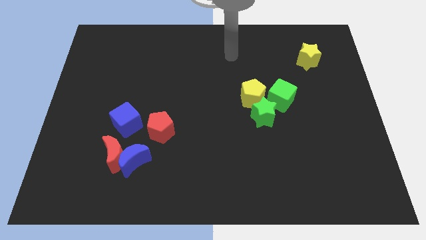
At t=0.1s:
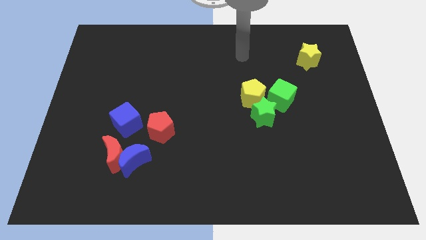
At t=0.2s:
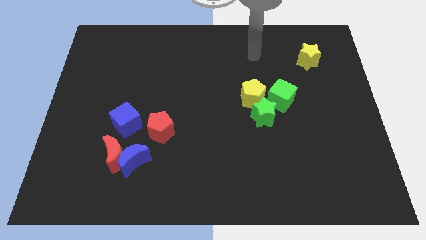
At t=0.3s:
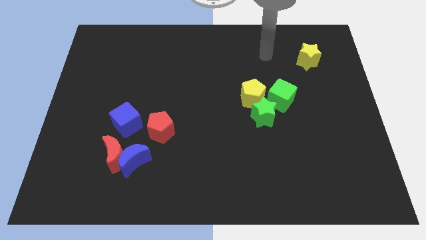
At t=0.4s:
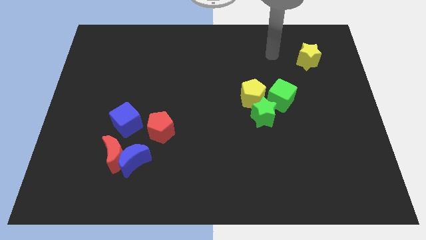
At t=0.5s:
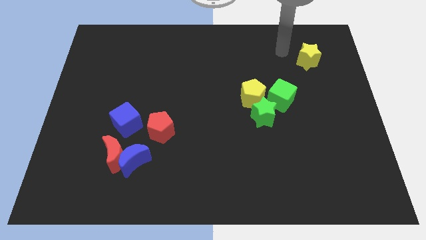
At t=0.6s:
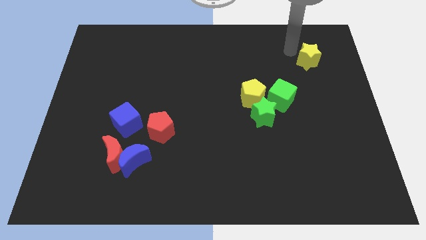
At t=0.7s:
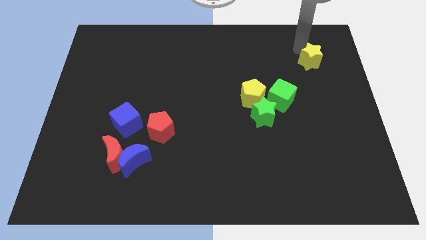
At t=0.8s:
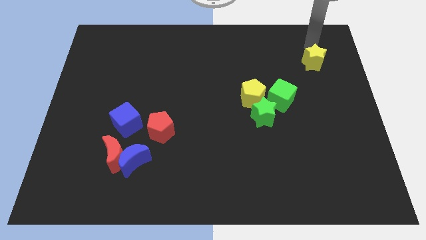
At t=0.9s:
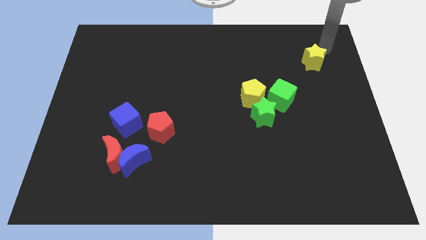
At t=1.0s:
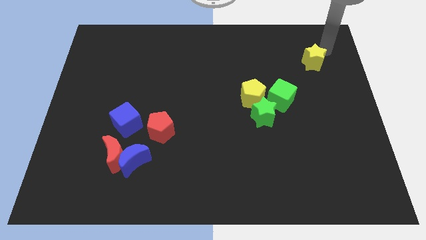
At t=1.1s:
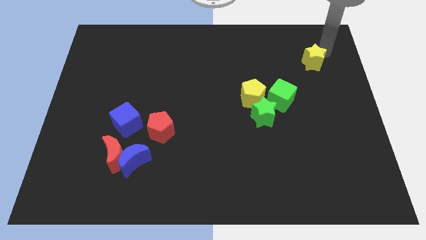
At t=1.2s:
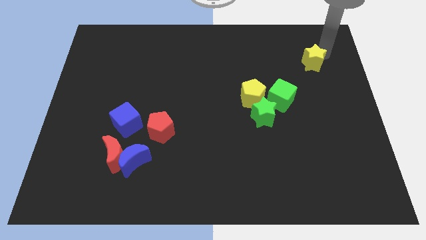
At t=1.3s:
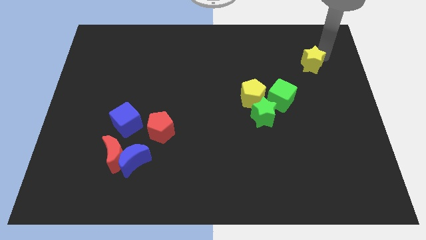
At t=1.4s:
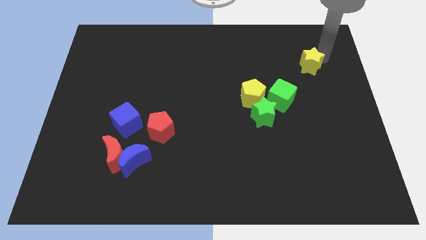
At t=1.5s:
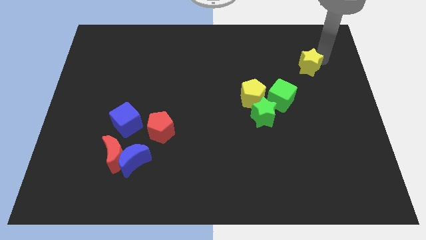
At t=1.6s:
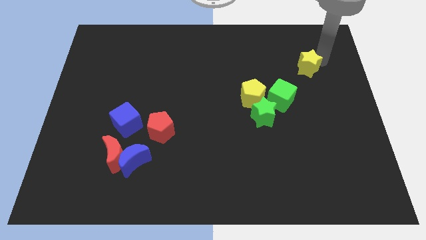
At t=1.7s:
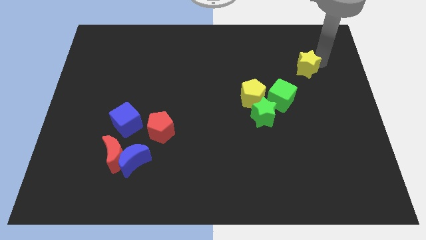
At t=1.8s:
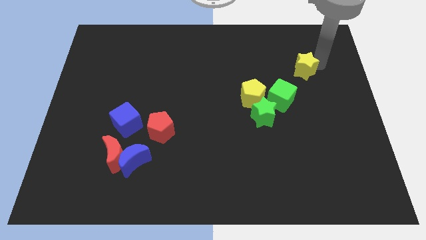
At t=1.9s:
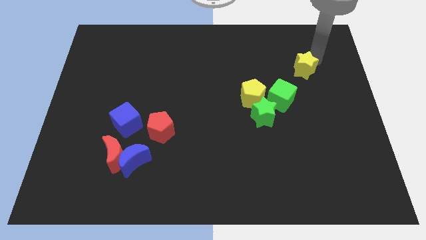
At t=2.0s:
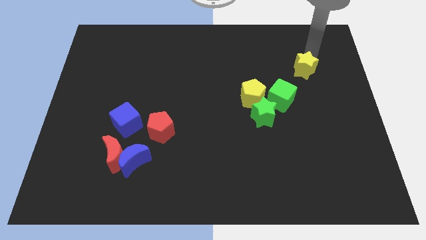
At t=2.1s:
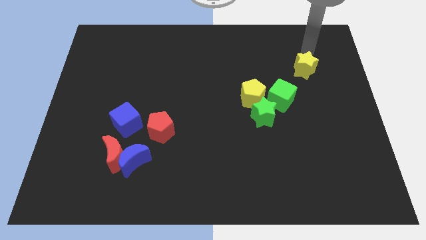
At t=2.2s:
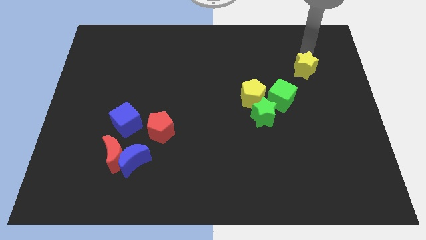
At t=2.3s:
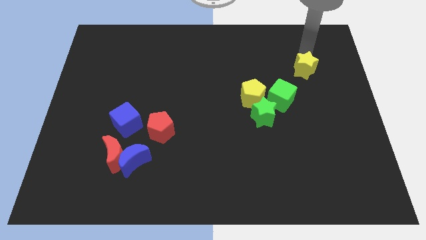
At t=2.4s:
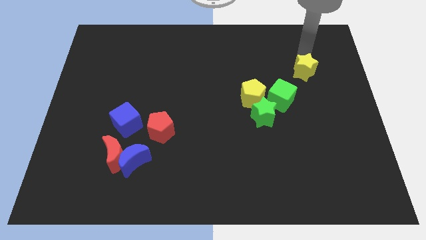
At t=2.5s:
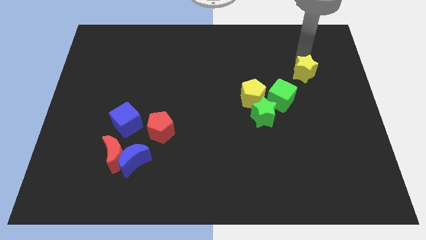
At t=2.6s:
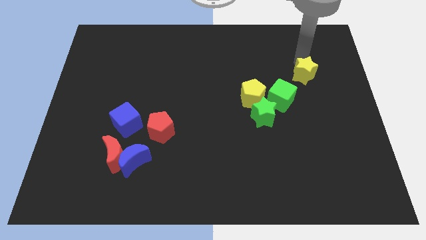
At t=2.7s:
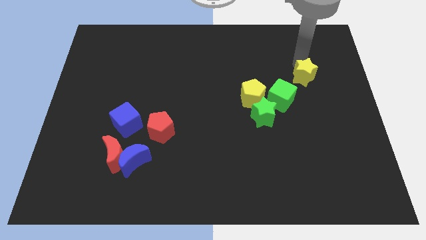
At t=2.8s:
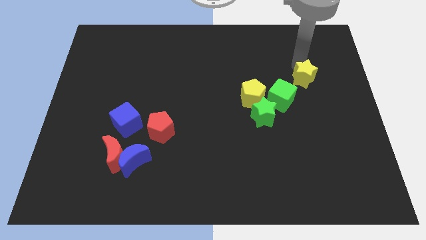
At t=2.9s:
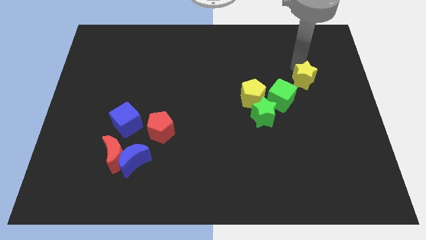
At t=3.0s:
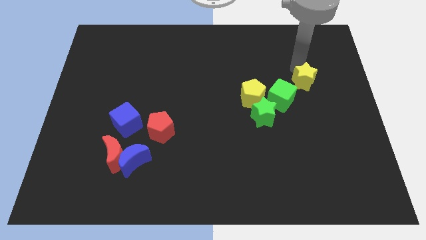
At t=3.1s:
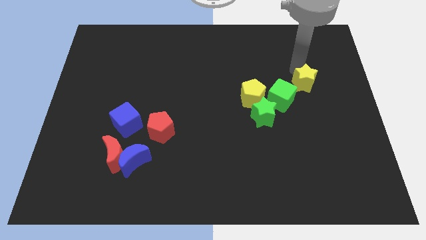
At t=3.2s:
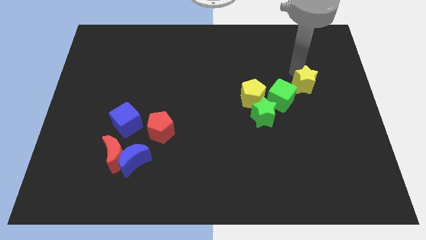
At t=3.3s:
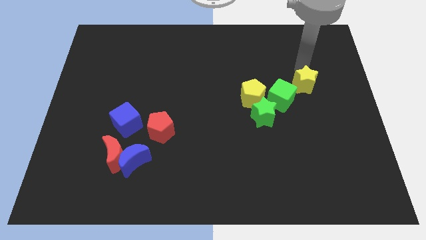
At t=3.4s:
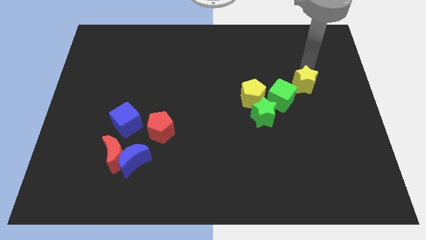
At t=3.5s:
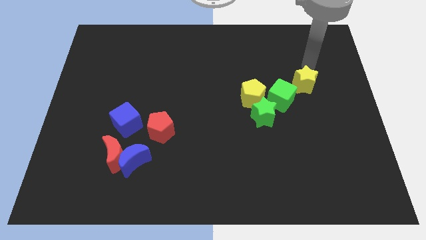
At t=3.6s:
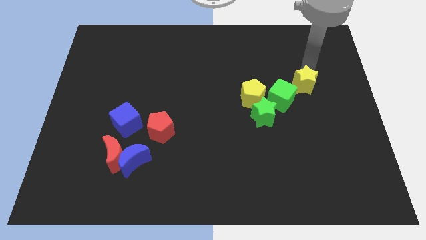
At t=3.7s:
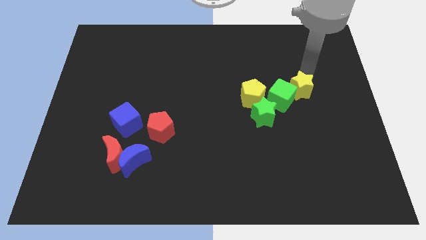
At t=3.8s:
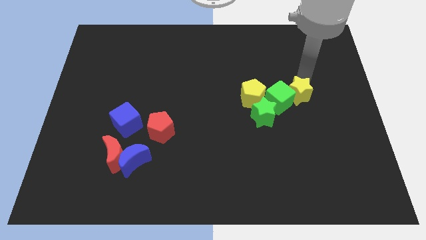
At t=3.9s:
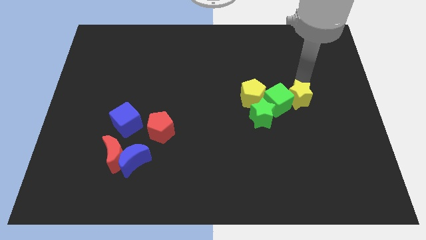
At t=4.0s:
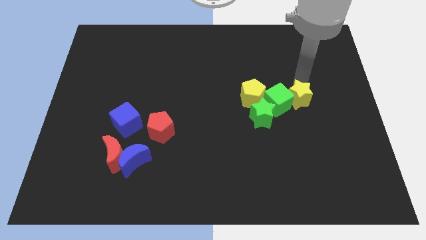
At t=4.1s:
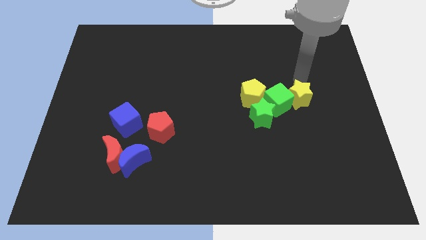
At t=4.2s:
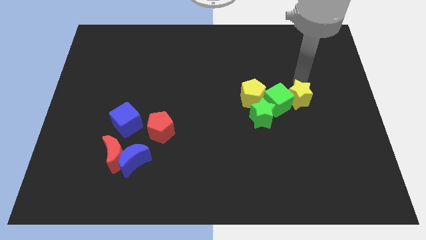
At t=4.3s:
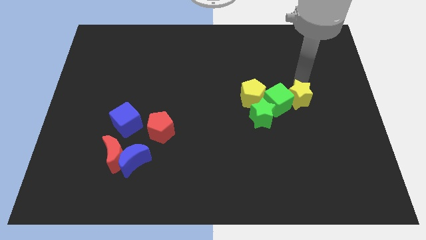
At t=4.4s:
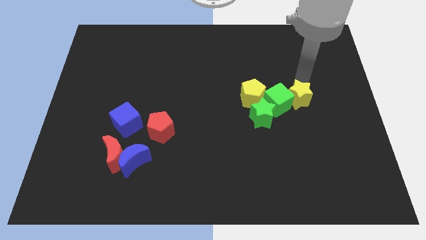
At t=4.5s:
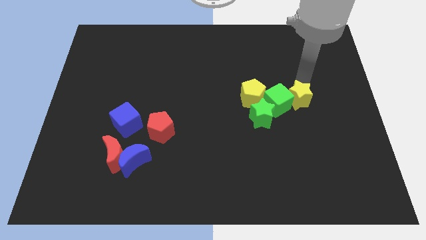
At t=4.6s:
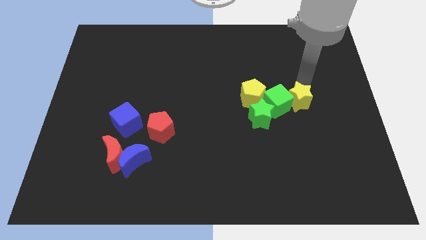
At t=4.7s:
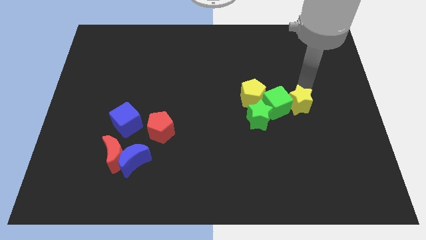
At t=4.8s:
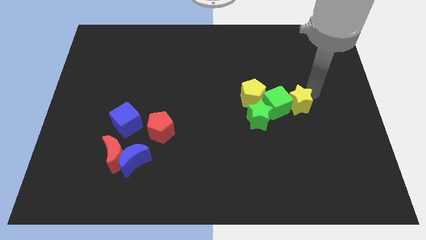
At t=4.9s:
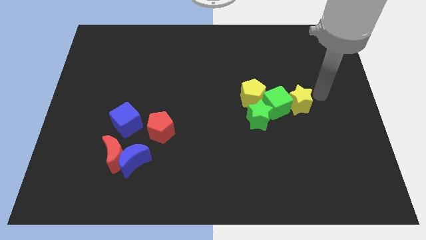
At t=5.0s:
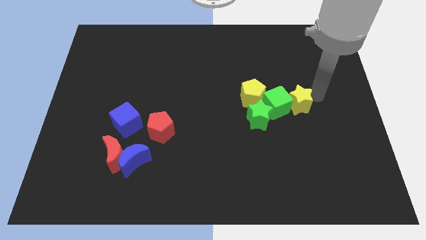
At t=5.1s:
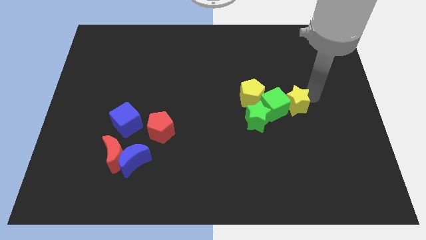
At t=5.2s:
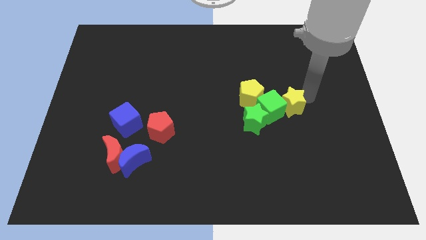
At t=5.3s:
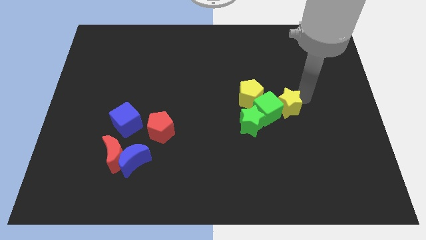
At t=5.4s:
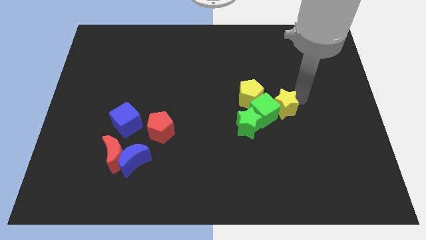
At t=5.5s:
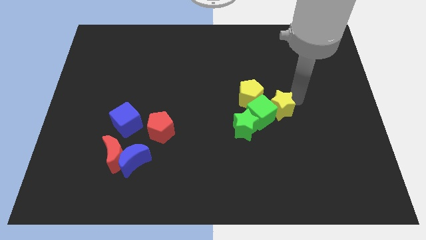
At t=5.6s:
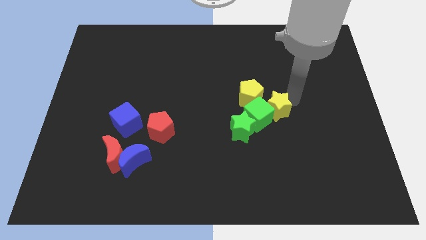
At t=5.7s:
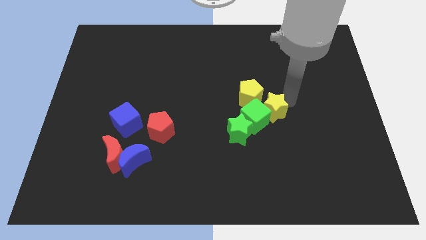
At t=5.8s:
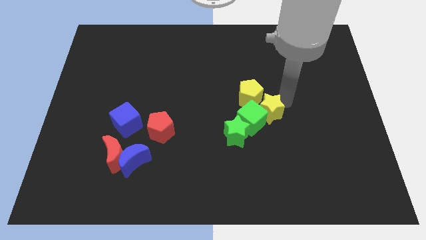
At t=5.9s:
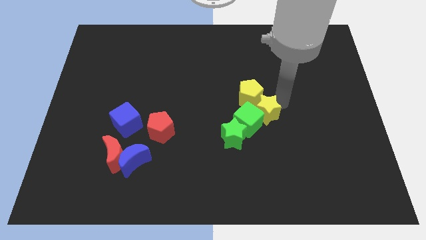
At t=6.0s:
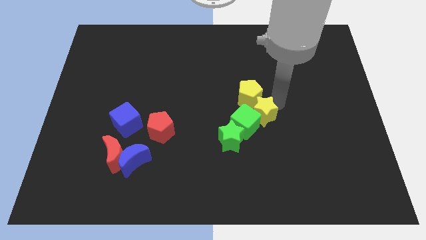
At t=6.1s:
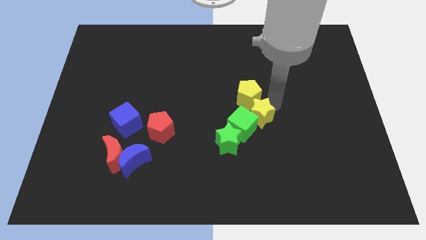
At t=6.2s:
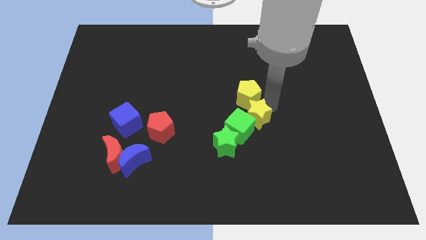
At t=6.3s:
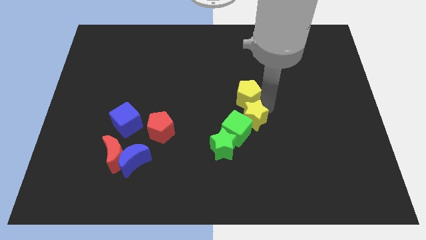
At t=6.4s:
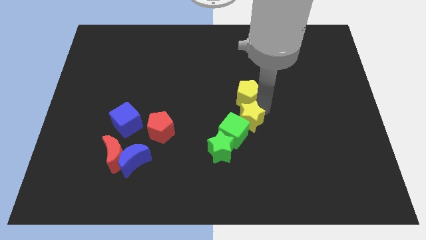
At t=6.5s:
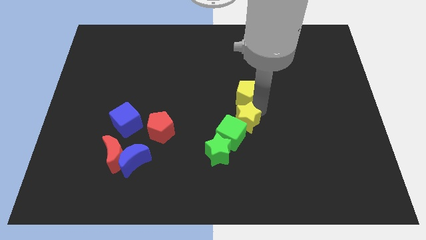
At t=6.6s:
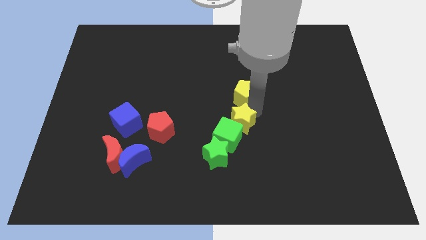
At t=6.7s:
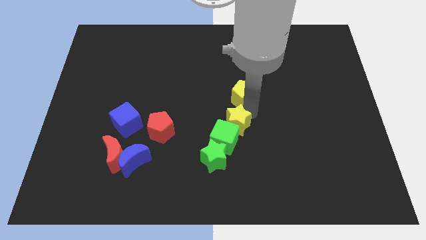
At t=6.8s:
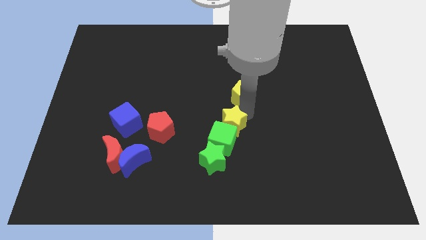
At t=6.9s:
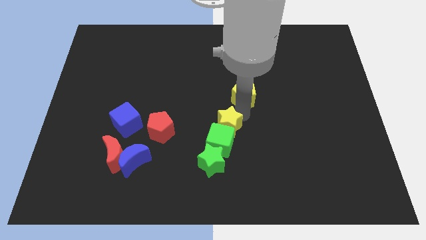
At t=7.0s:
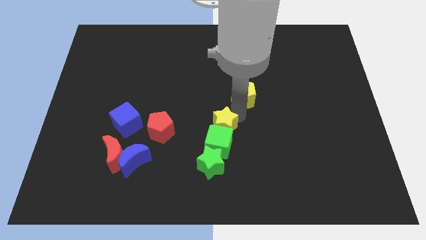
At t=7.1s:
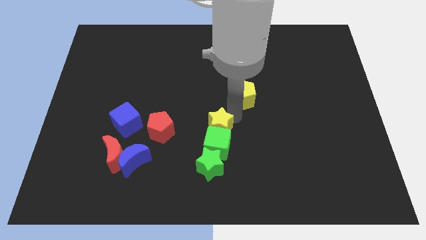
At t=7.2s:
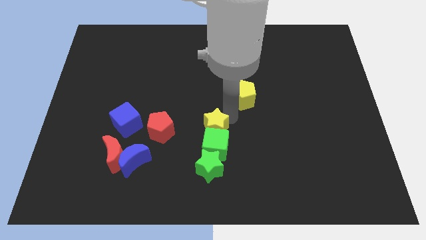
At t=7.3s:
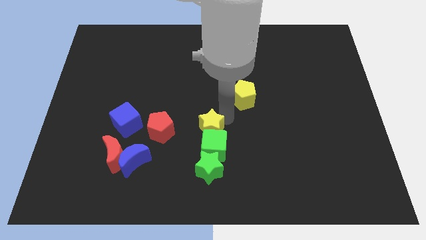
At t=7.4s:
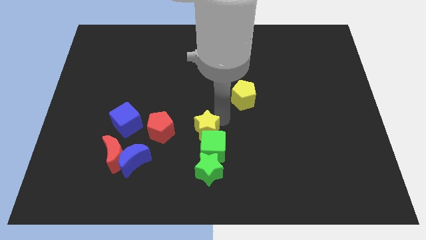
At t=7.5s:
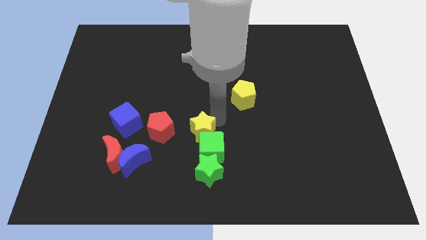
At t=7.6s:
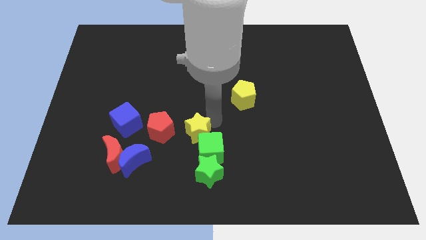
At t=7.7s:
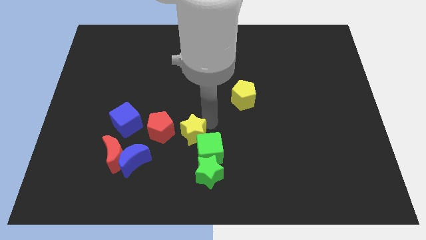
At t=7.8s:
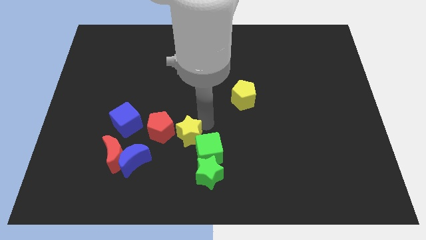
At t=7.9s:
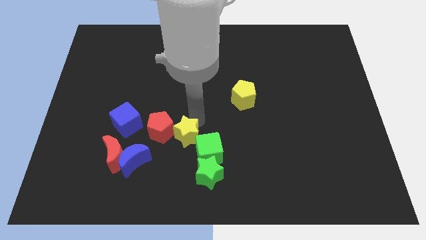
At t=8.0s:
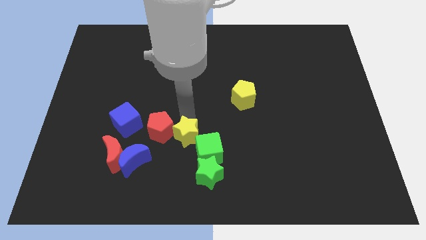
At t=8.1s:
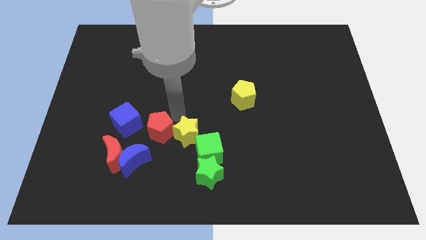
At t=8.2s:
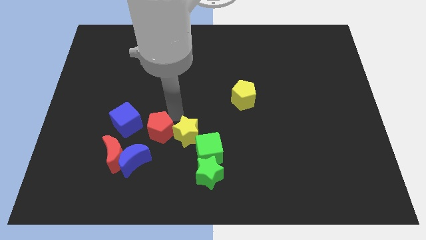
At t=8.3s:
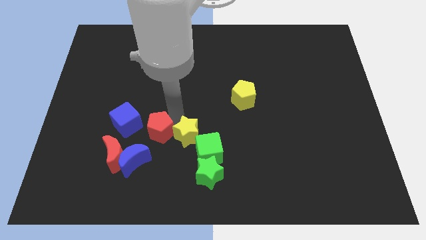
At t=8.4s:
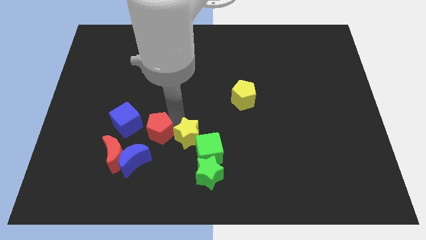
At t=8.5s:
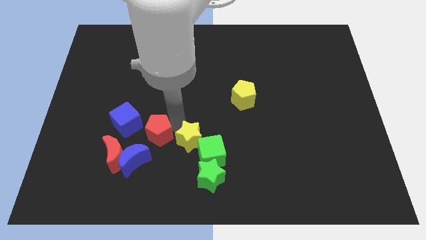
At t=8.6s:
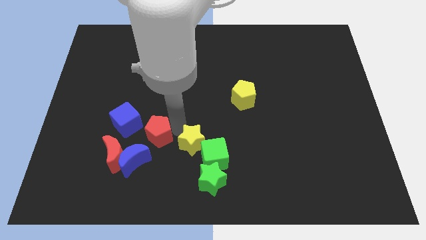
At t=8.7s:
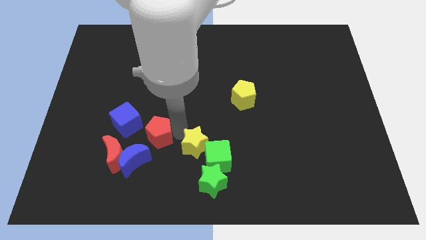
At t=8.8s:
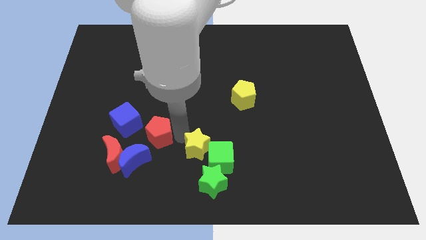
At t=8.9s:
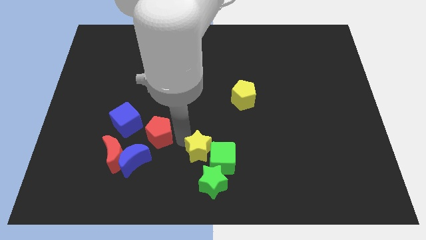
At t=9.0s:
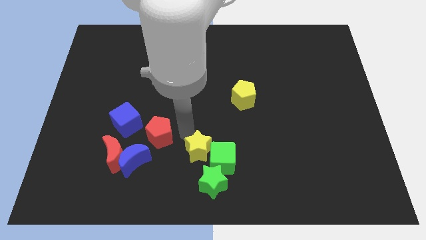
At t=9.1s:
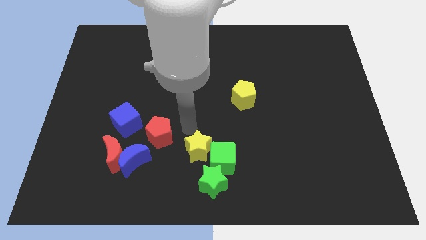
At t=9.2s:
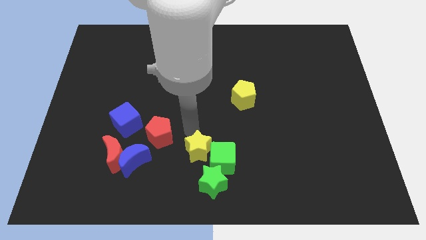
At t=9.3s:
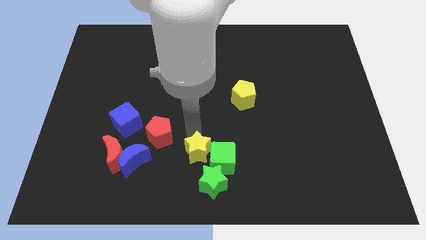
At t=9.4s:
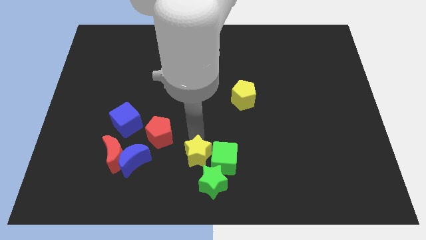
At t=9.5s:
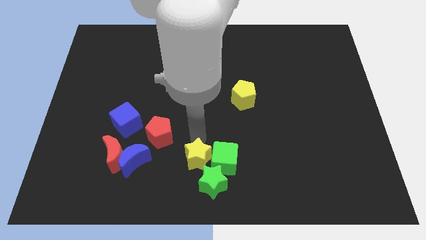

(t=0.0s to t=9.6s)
put the yellow star close to the green star
